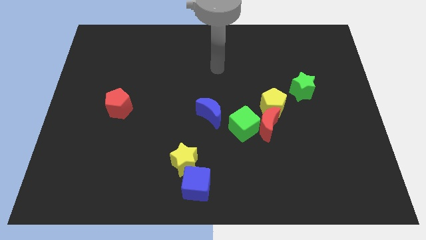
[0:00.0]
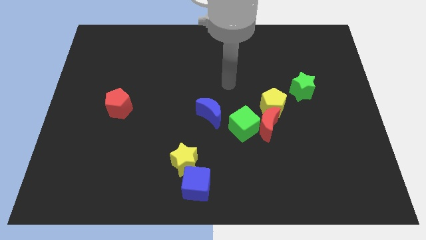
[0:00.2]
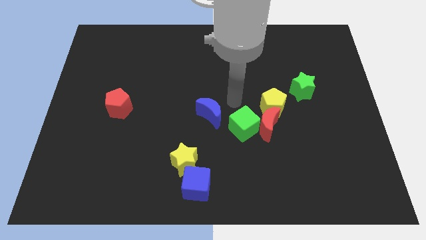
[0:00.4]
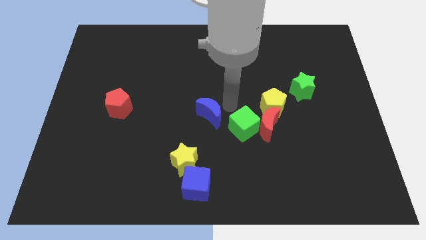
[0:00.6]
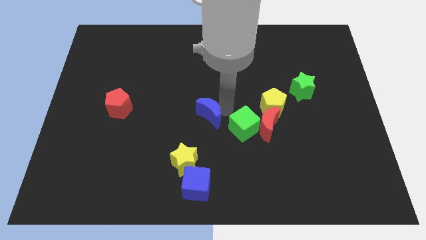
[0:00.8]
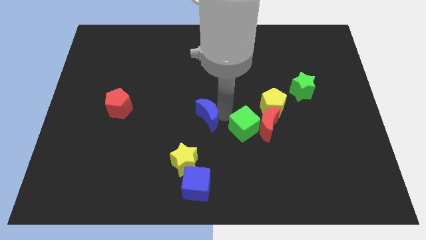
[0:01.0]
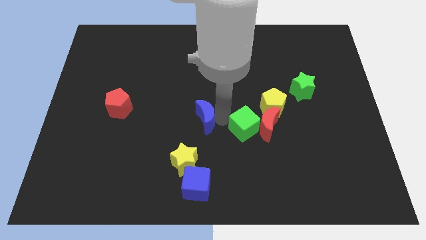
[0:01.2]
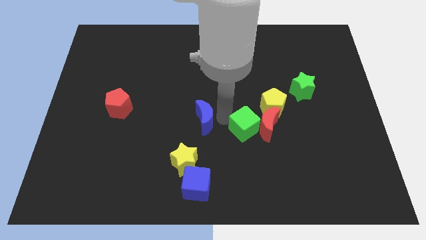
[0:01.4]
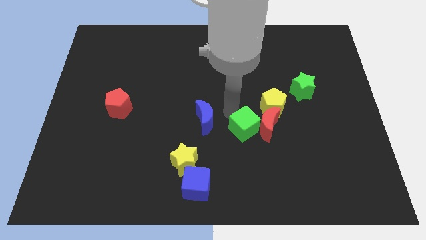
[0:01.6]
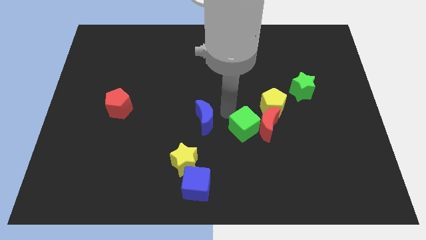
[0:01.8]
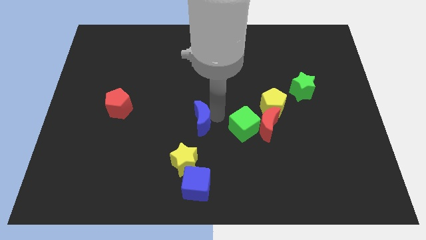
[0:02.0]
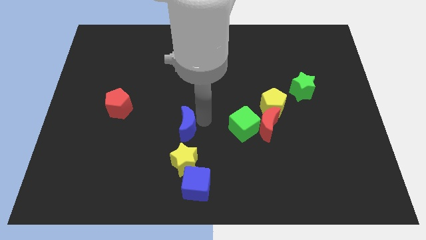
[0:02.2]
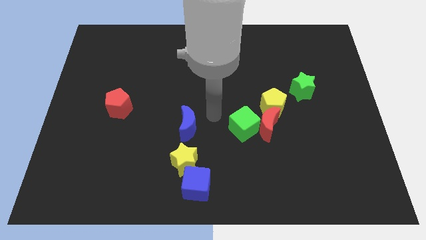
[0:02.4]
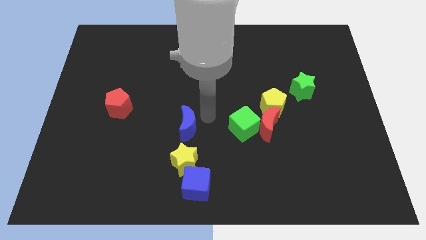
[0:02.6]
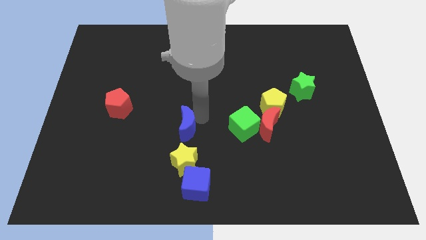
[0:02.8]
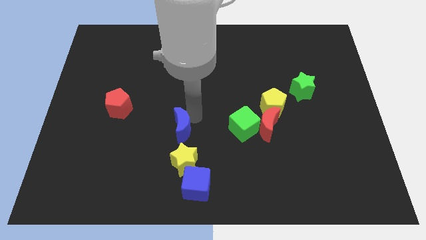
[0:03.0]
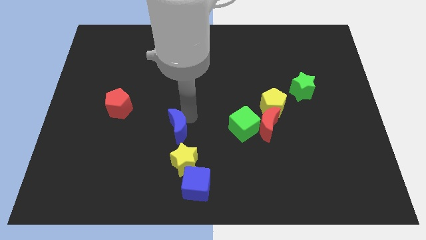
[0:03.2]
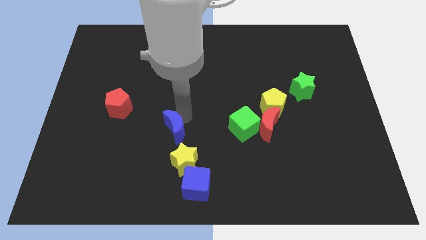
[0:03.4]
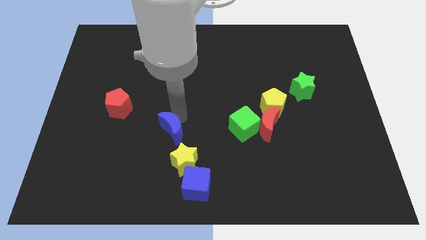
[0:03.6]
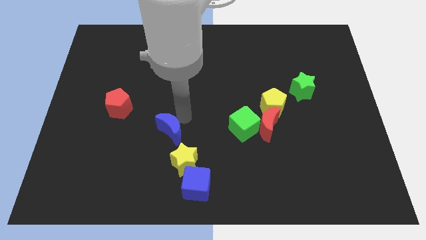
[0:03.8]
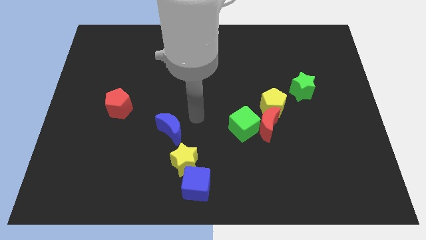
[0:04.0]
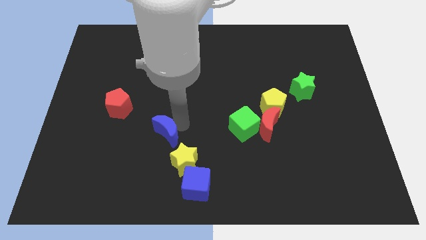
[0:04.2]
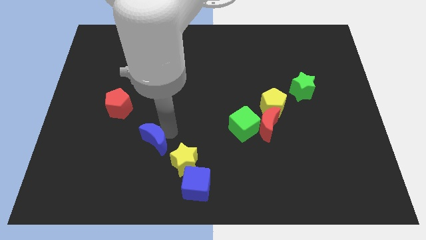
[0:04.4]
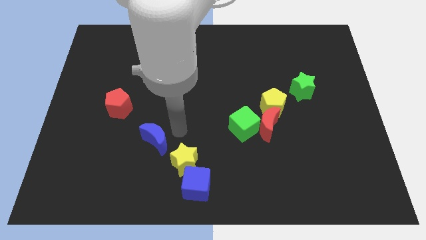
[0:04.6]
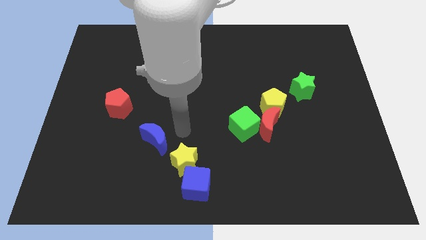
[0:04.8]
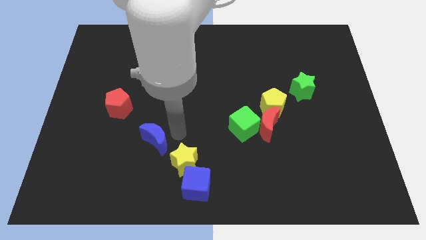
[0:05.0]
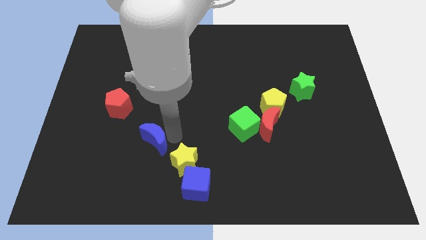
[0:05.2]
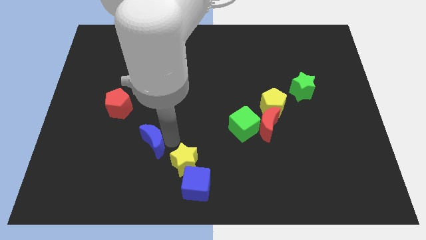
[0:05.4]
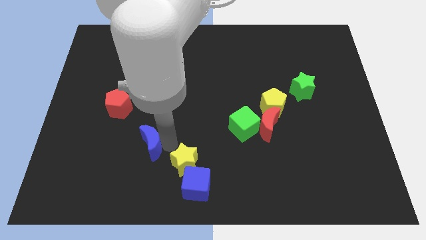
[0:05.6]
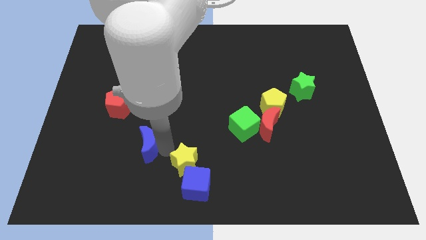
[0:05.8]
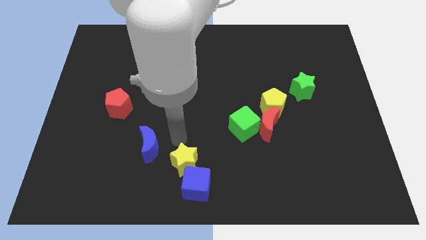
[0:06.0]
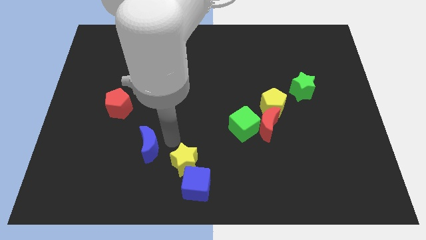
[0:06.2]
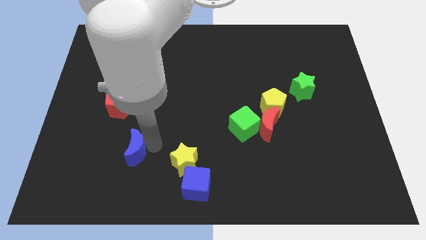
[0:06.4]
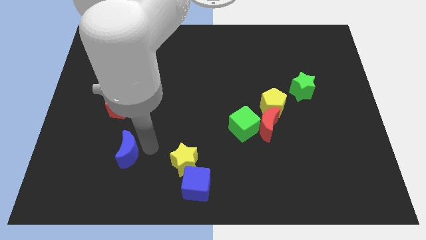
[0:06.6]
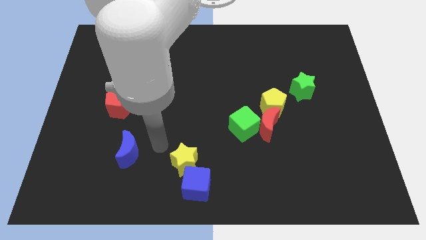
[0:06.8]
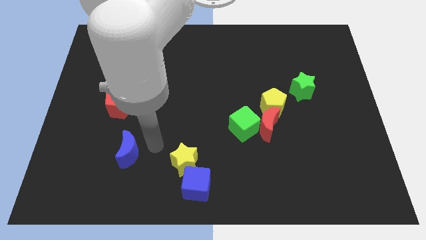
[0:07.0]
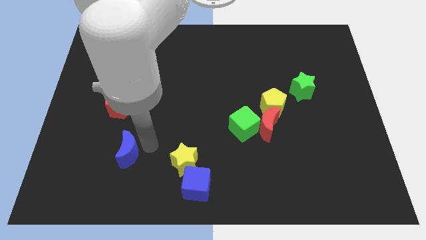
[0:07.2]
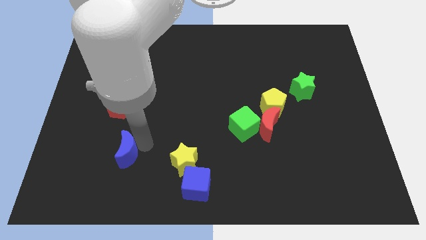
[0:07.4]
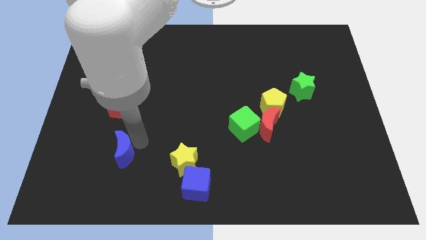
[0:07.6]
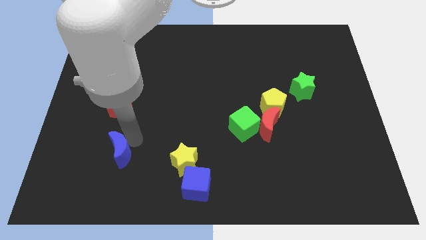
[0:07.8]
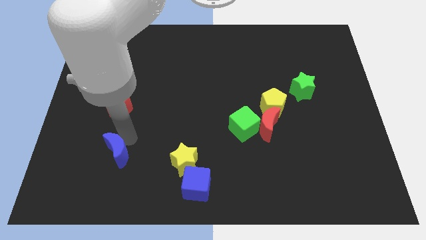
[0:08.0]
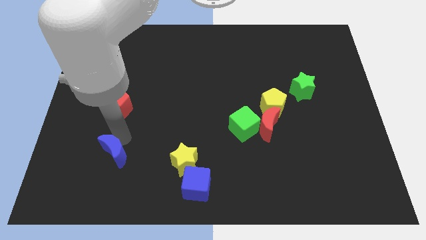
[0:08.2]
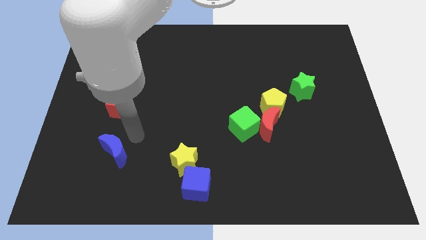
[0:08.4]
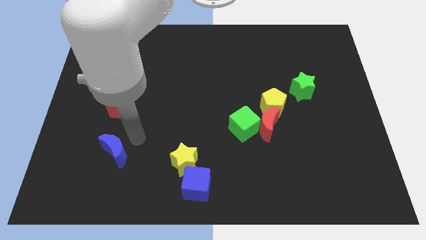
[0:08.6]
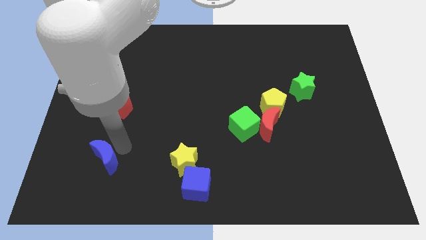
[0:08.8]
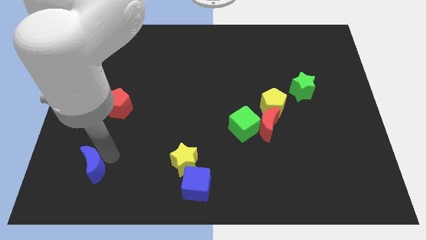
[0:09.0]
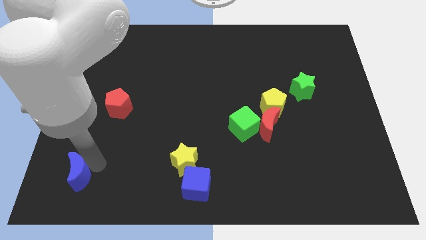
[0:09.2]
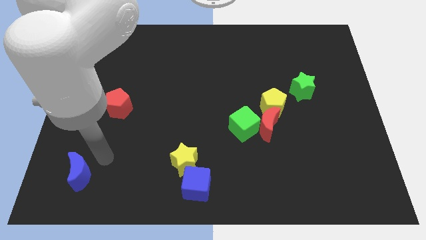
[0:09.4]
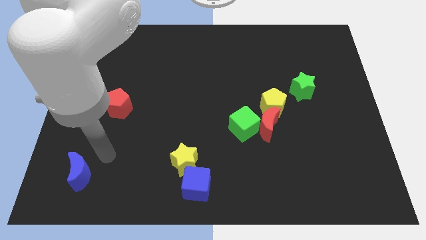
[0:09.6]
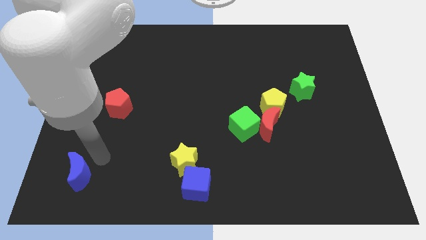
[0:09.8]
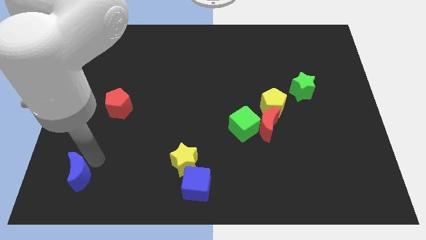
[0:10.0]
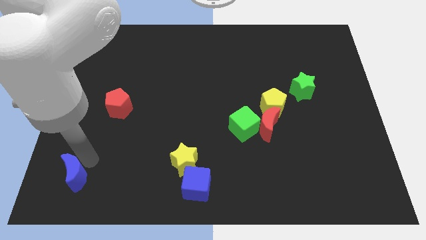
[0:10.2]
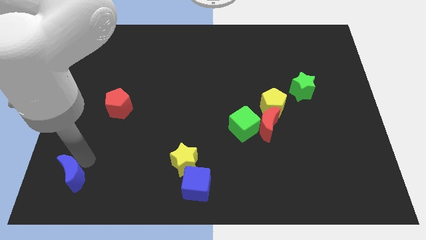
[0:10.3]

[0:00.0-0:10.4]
push the blue moon to the lower left corner

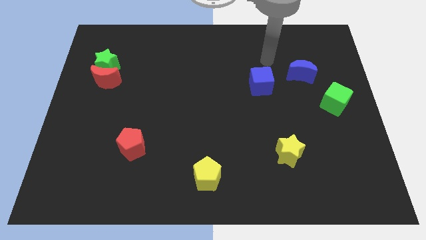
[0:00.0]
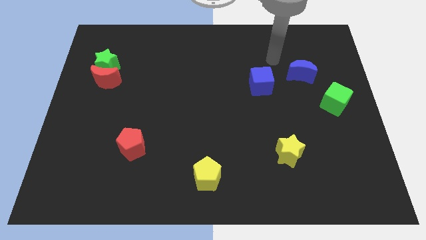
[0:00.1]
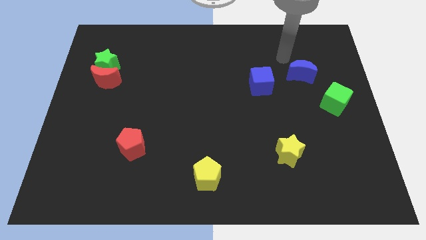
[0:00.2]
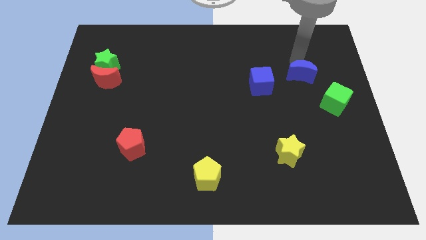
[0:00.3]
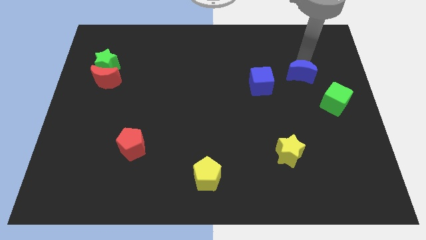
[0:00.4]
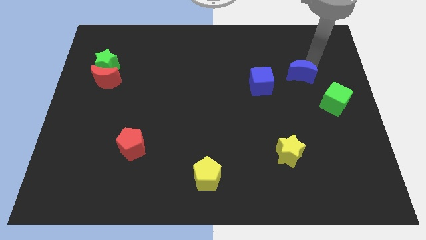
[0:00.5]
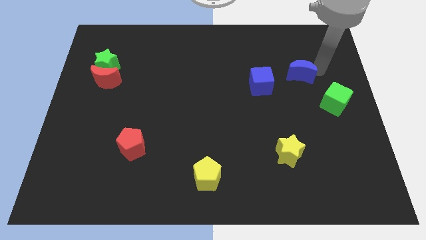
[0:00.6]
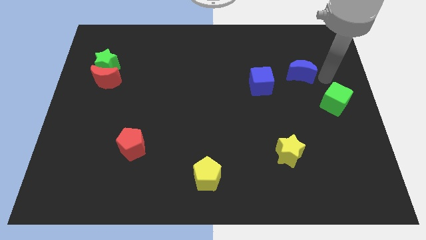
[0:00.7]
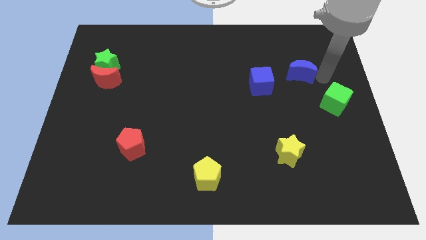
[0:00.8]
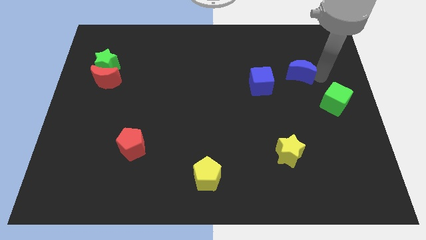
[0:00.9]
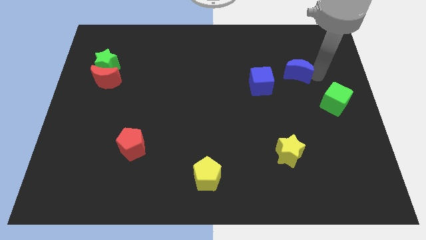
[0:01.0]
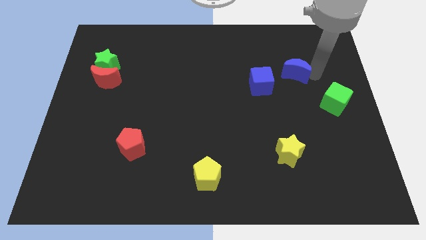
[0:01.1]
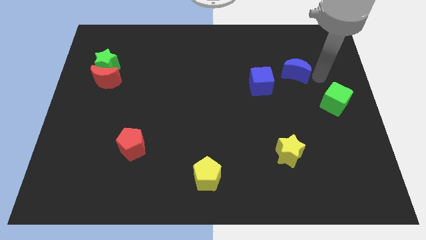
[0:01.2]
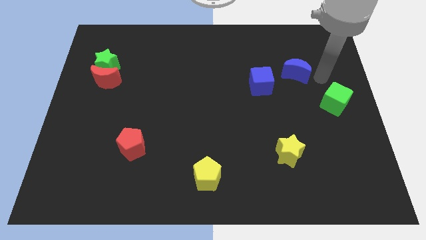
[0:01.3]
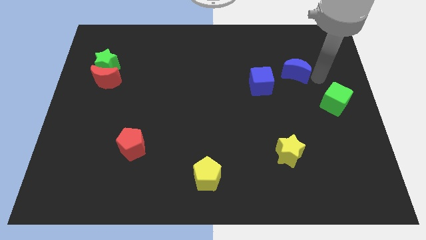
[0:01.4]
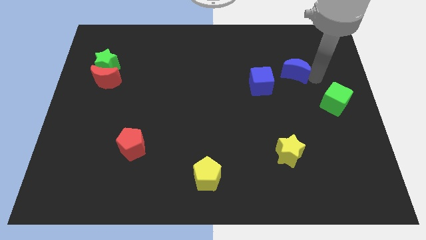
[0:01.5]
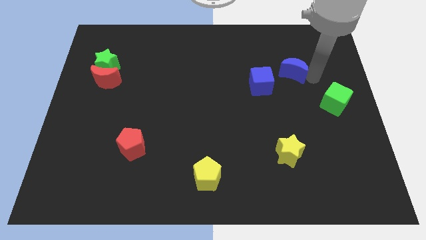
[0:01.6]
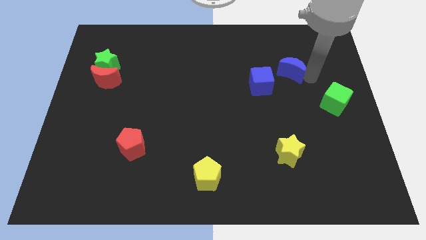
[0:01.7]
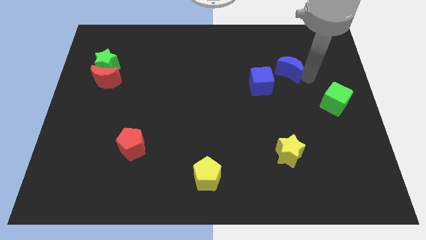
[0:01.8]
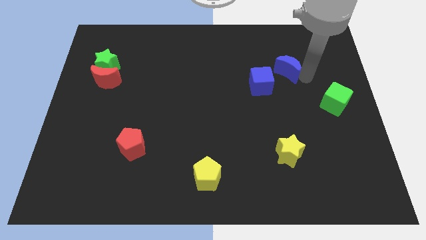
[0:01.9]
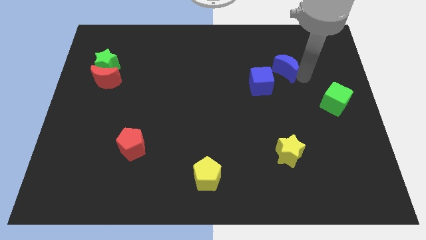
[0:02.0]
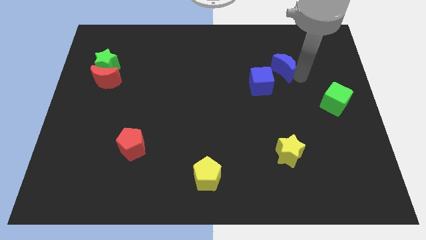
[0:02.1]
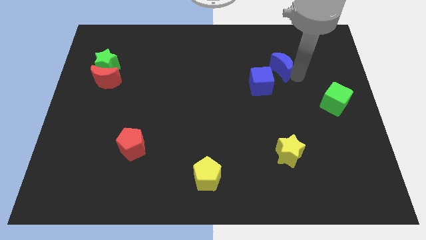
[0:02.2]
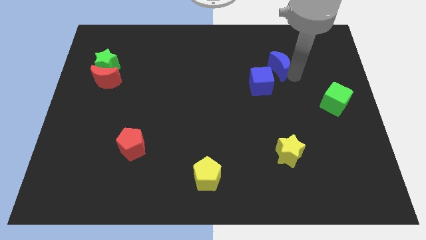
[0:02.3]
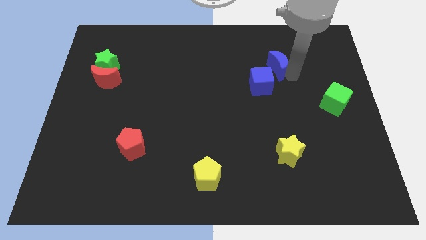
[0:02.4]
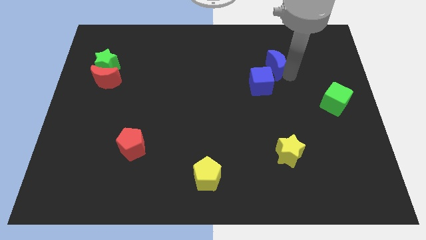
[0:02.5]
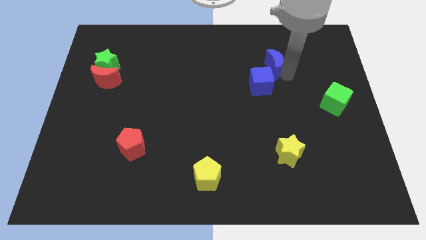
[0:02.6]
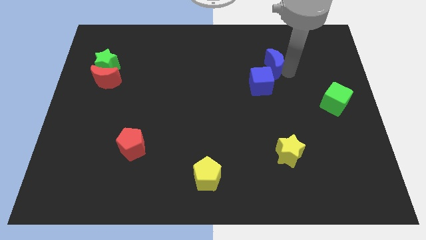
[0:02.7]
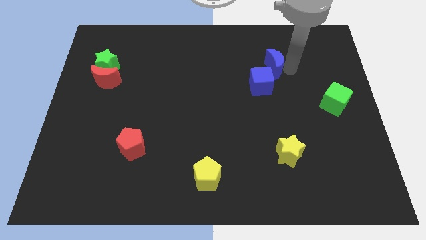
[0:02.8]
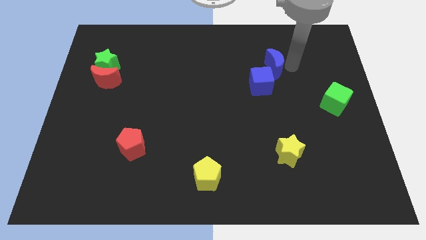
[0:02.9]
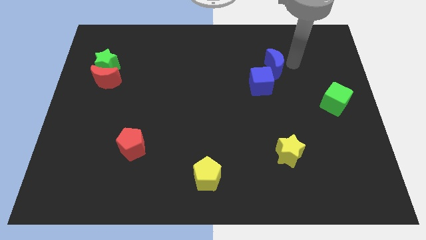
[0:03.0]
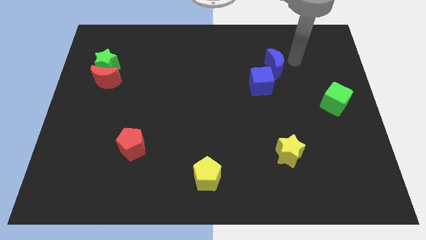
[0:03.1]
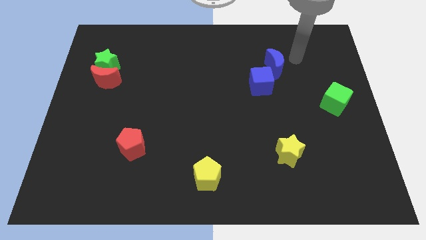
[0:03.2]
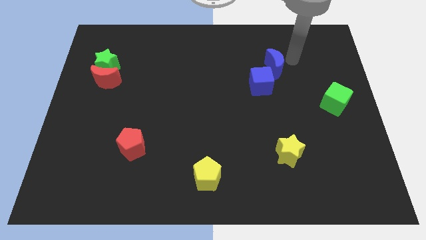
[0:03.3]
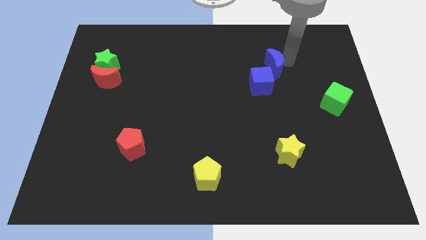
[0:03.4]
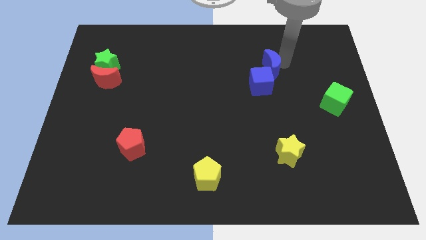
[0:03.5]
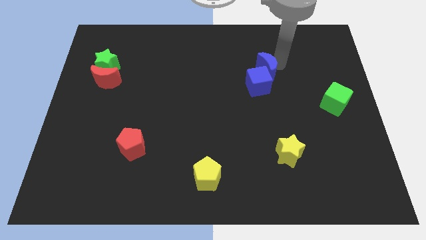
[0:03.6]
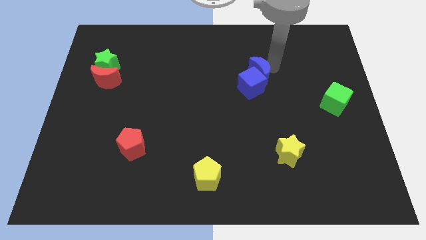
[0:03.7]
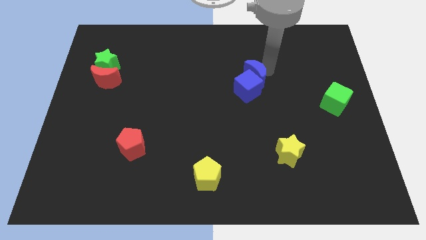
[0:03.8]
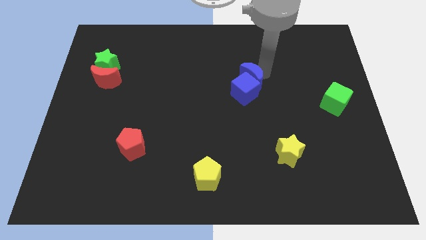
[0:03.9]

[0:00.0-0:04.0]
push the blue moon to the middle of the board
